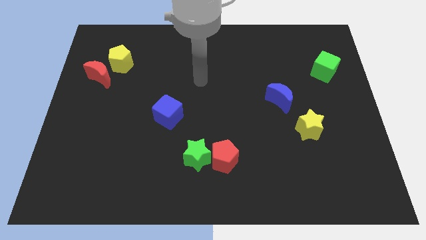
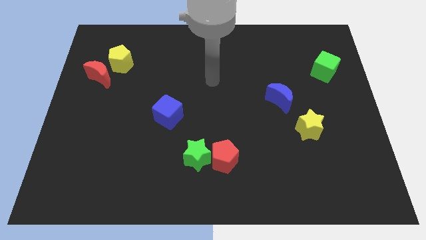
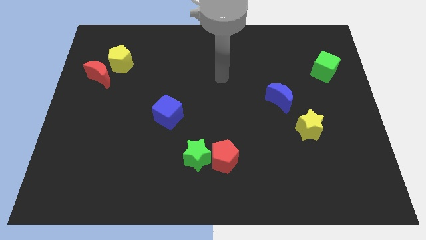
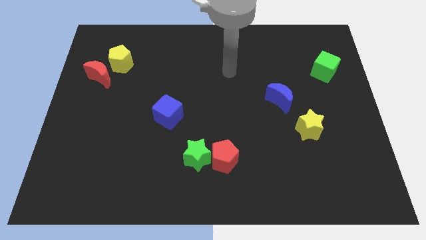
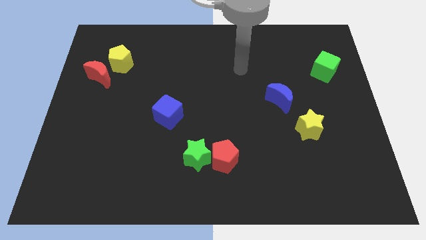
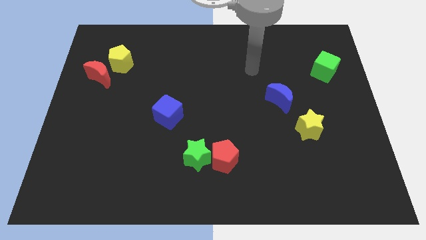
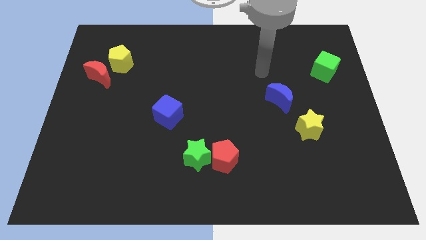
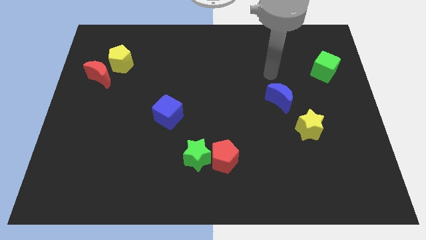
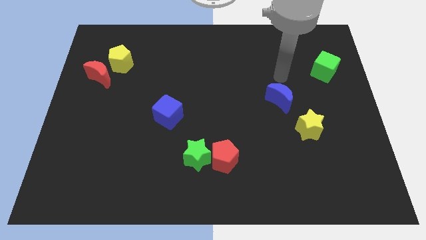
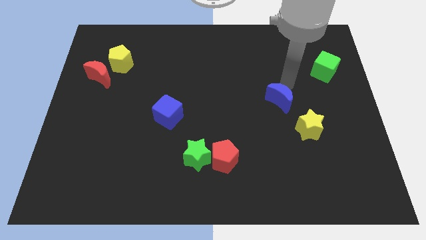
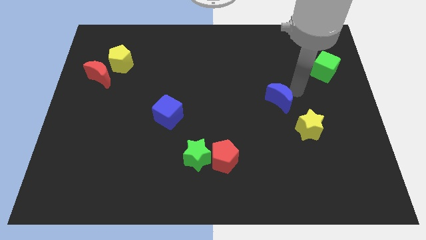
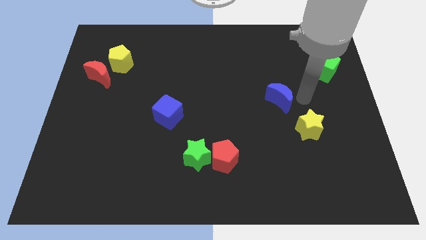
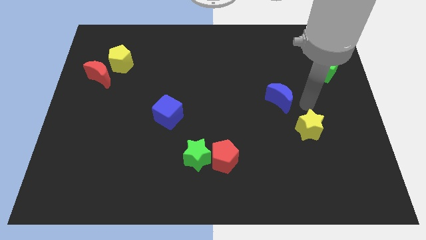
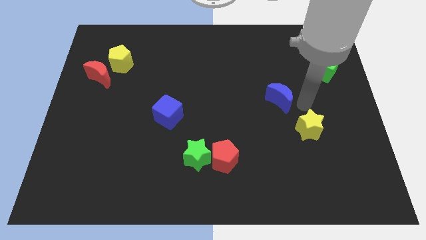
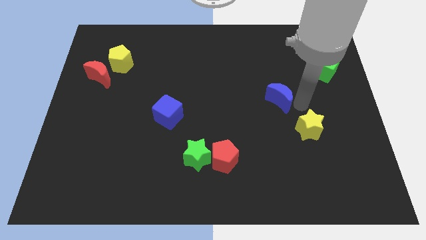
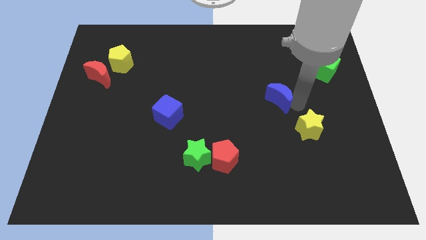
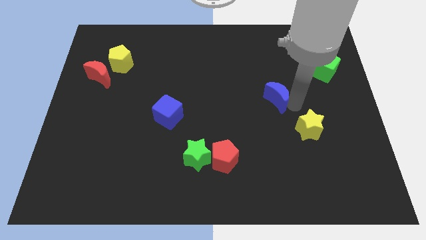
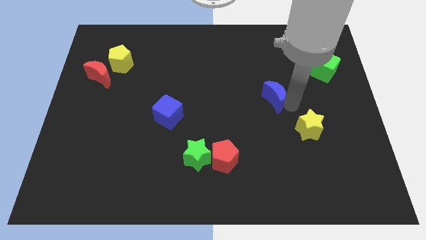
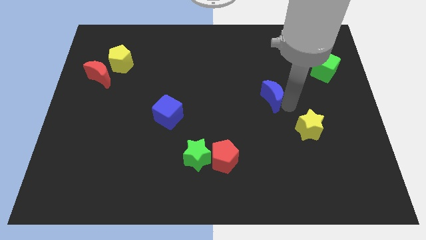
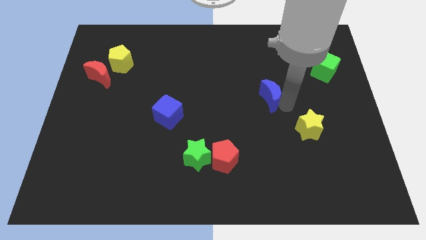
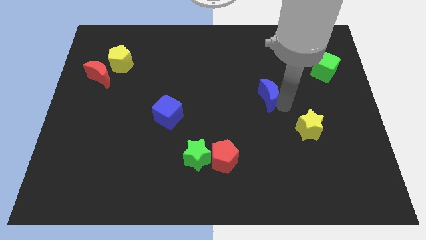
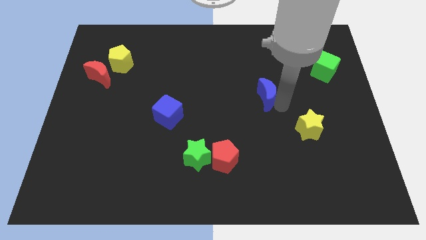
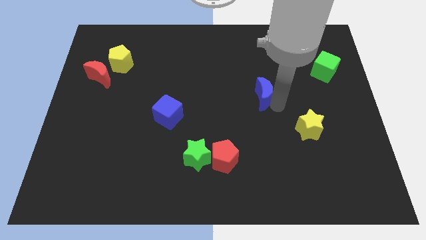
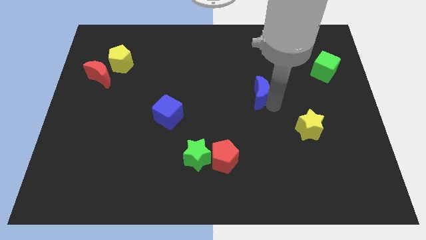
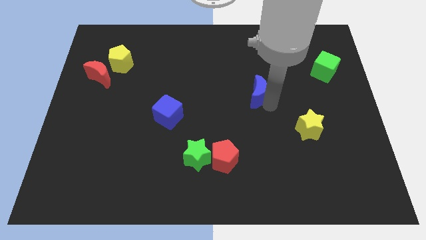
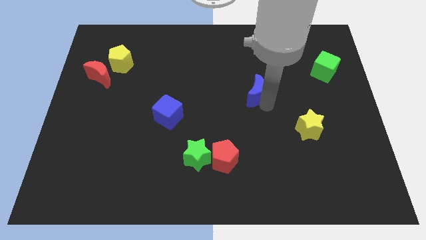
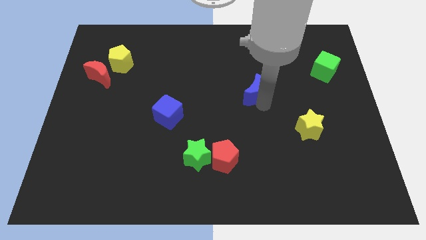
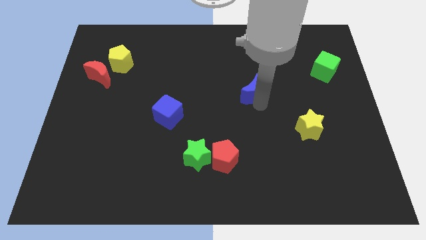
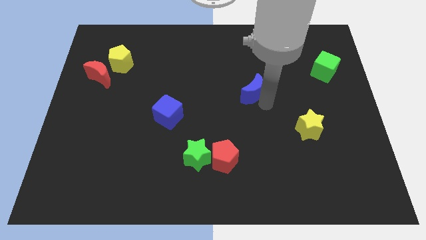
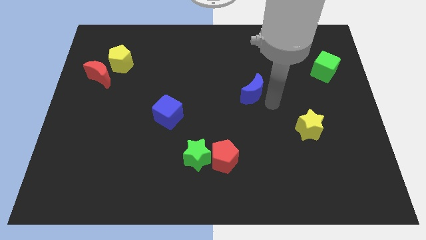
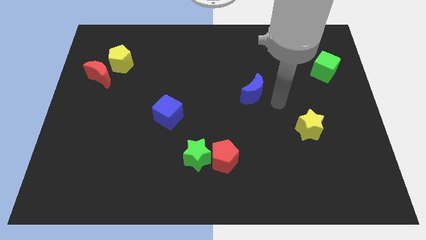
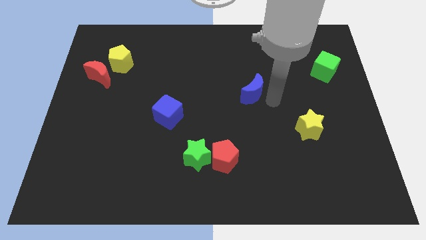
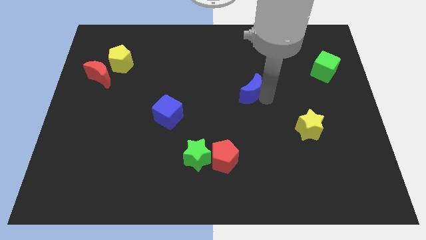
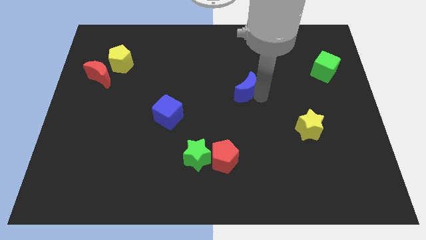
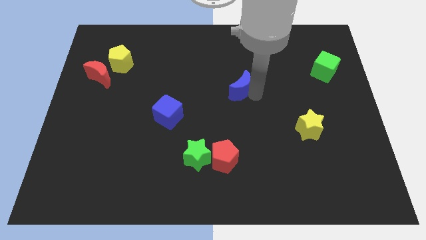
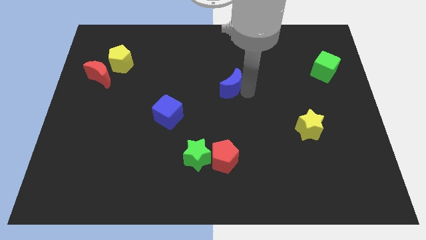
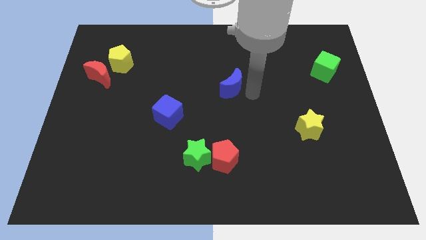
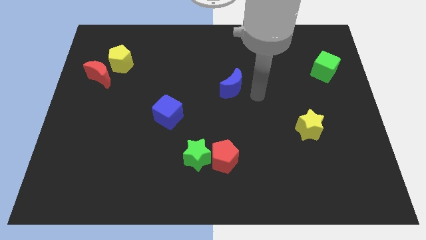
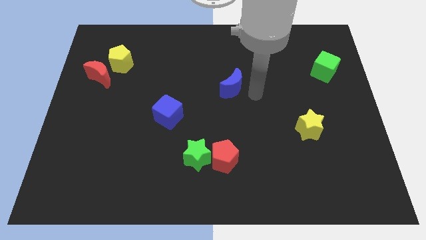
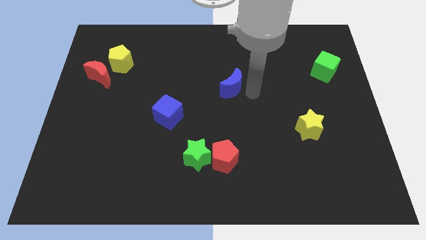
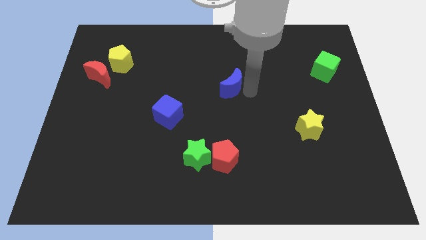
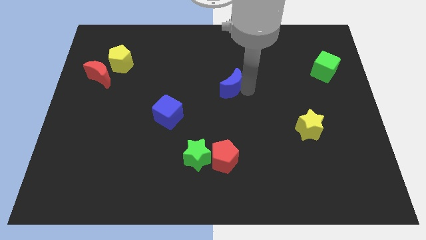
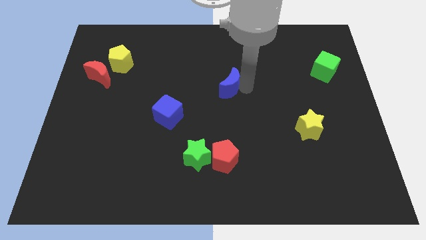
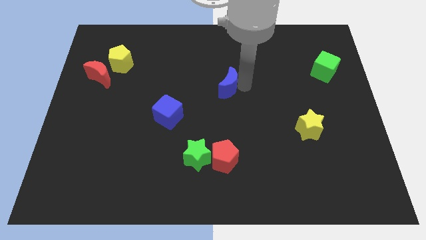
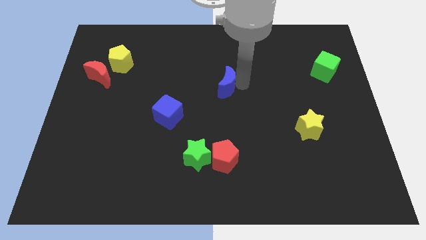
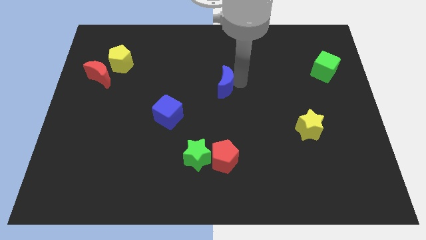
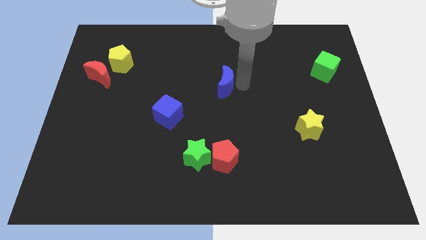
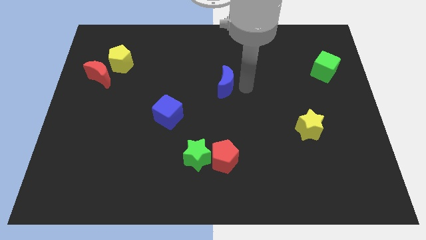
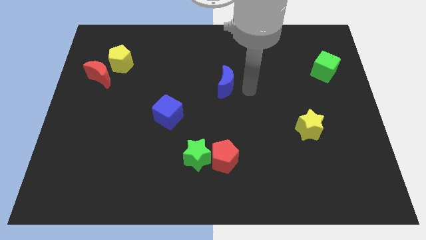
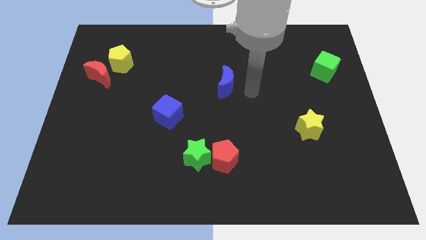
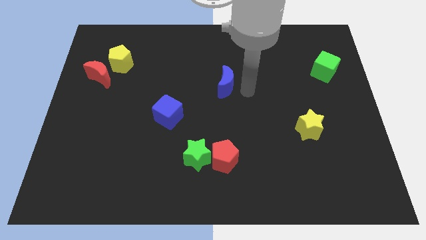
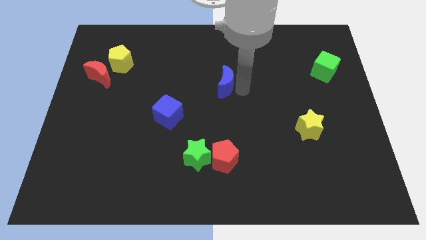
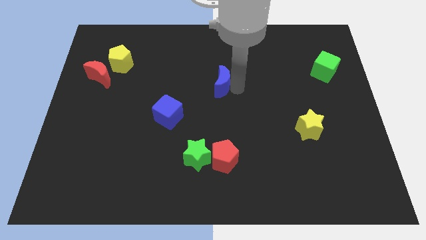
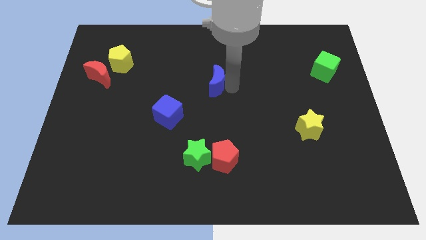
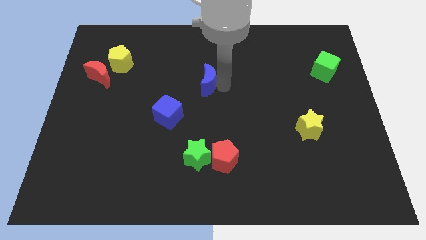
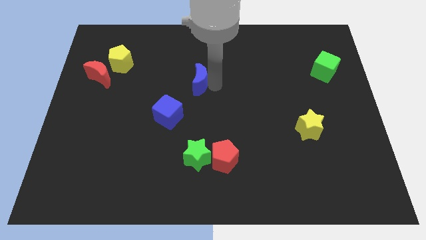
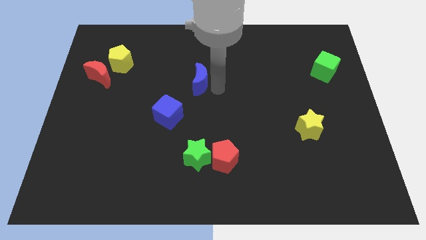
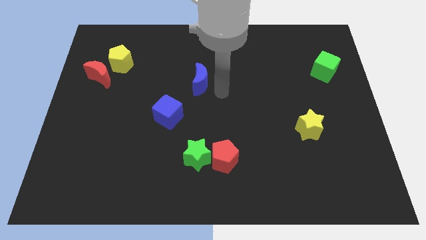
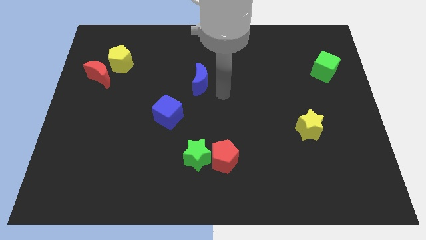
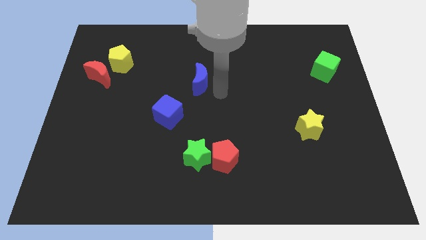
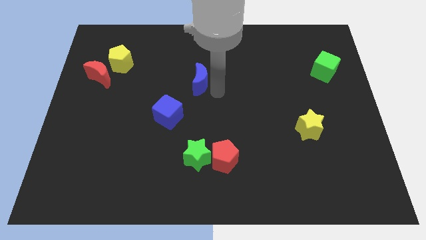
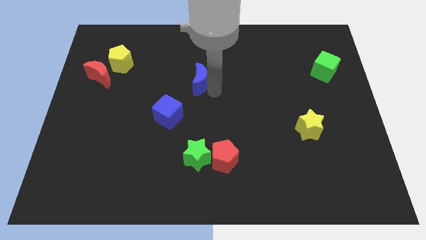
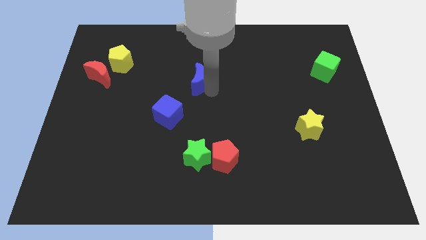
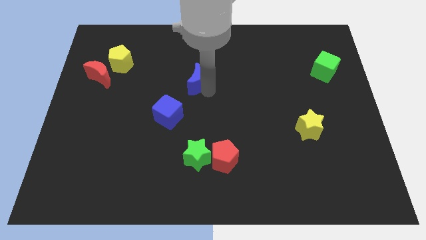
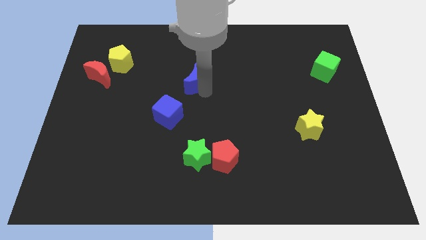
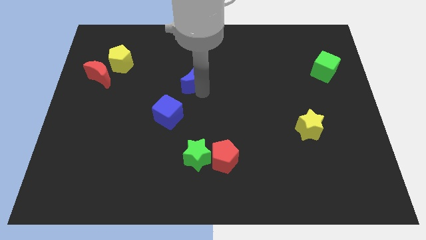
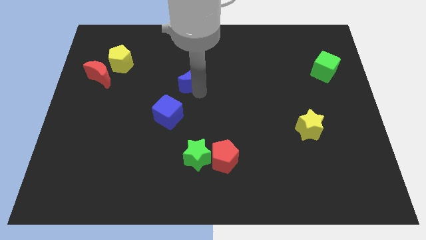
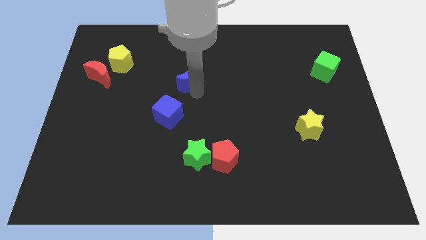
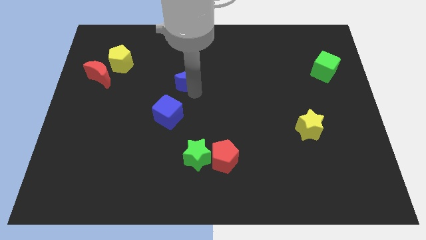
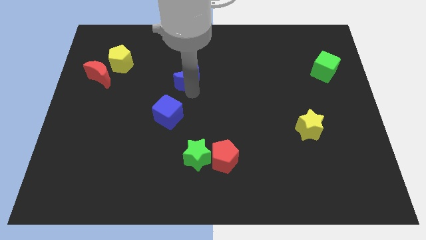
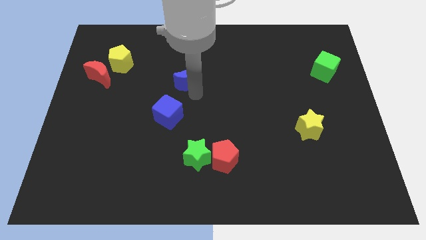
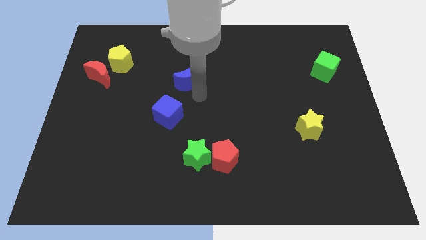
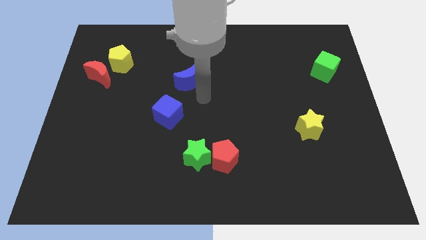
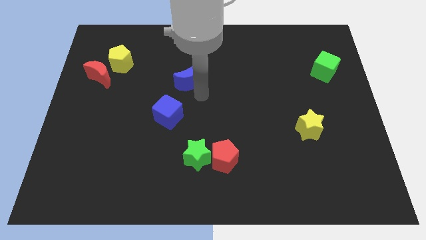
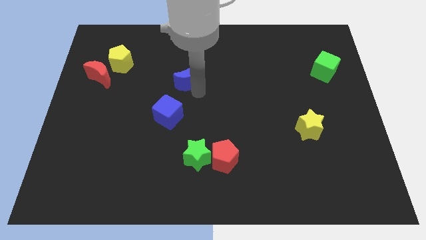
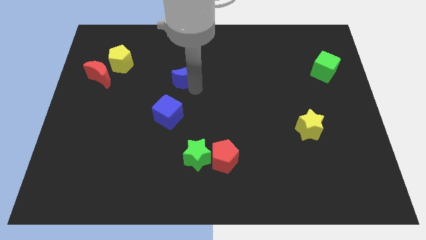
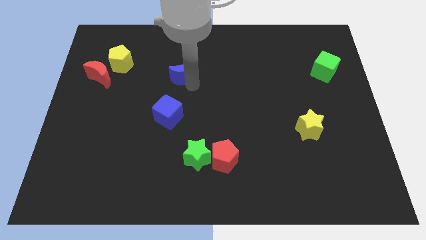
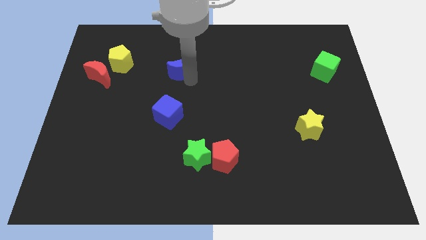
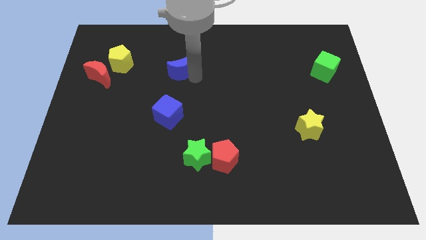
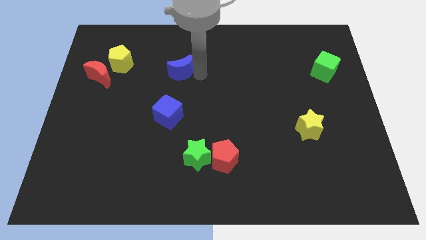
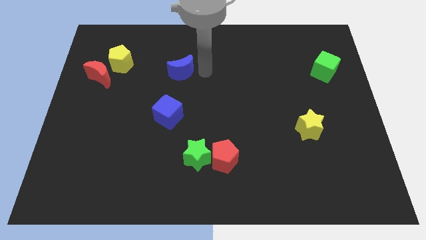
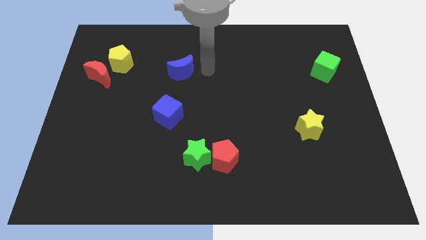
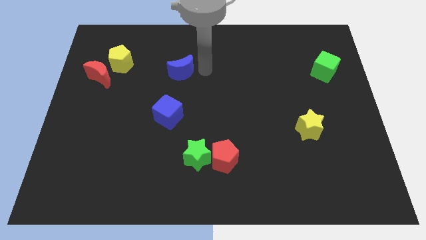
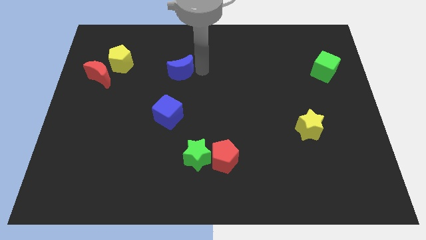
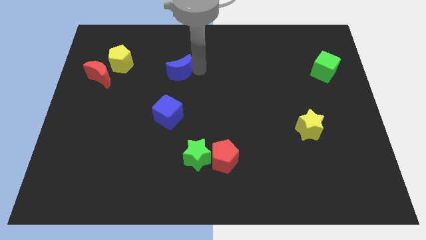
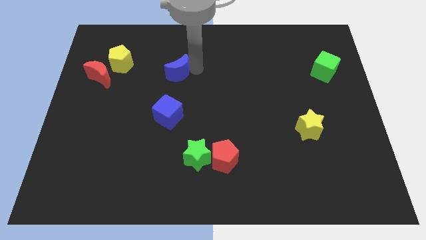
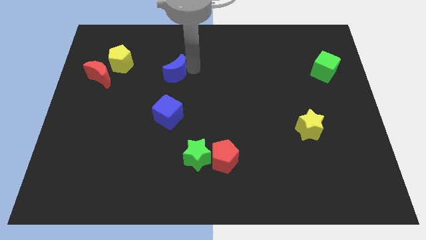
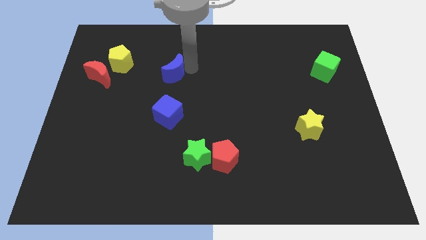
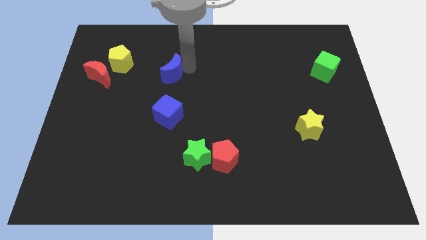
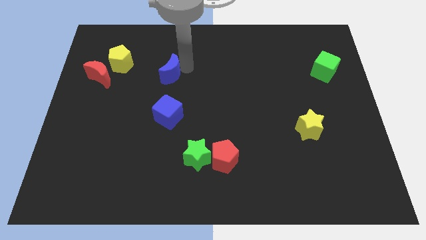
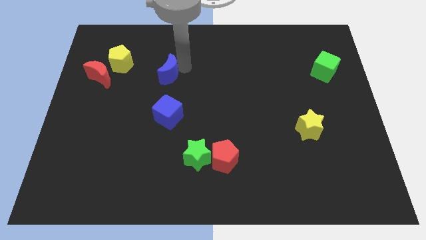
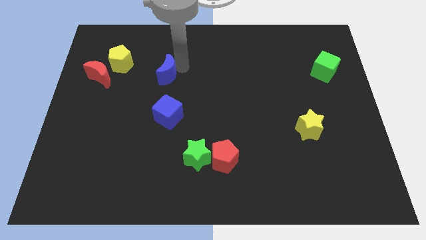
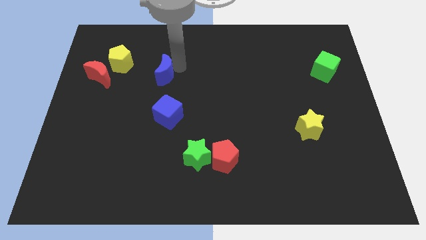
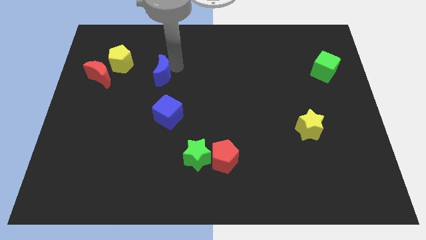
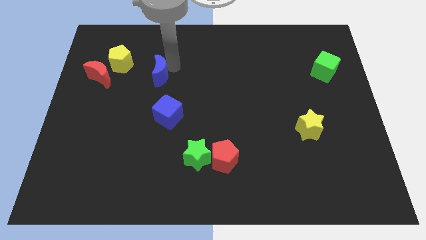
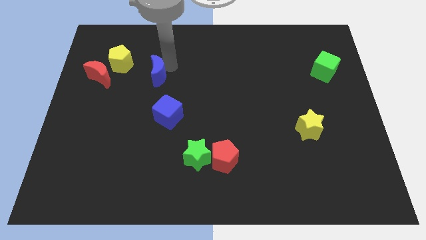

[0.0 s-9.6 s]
put the blue moon diagonally down and to the right of the yellow pentagon
